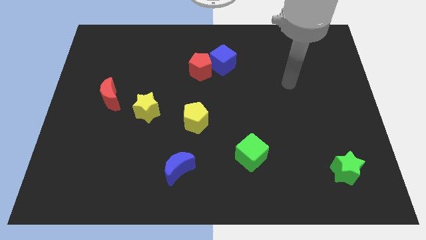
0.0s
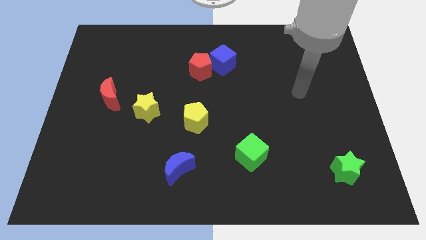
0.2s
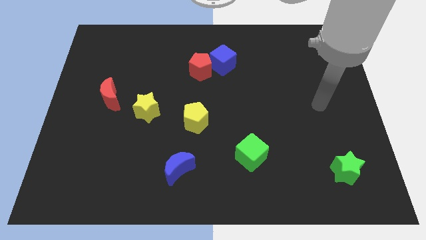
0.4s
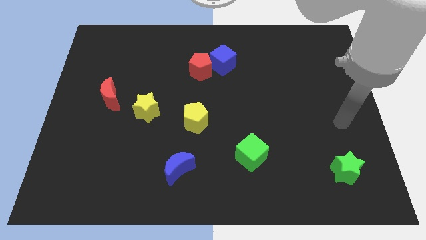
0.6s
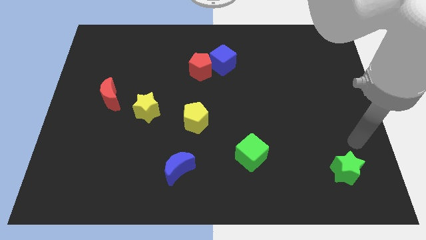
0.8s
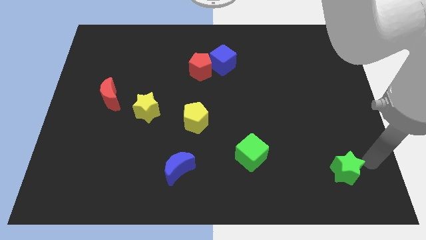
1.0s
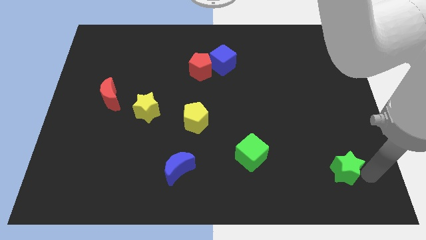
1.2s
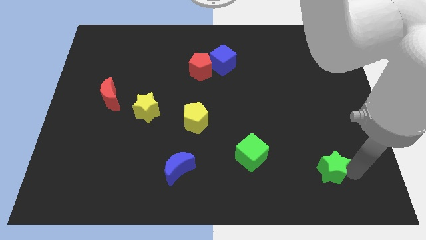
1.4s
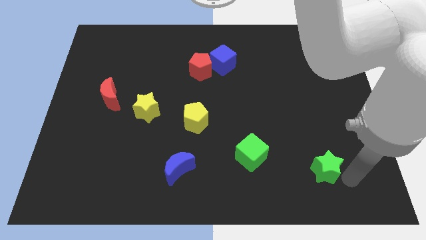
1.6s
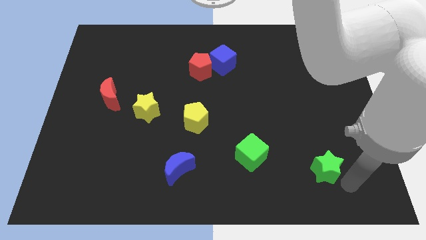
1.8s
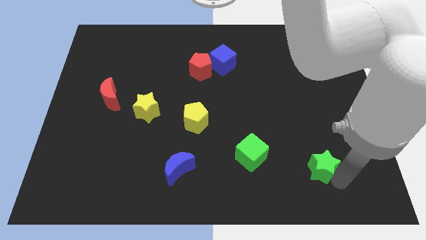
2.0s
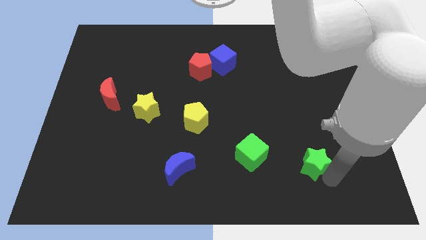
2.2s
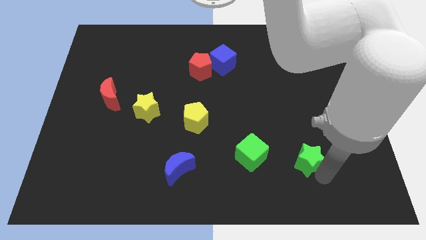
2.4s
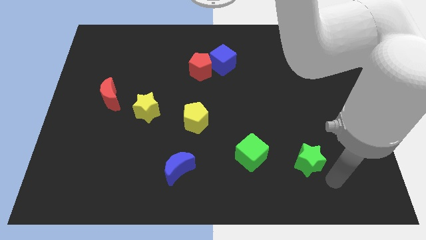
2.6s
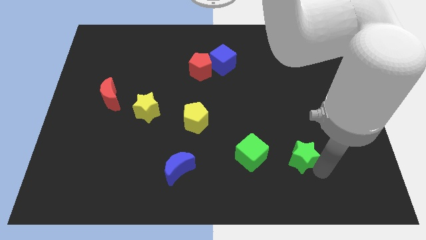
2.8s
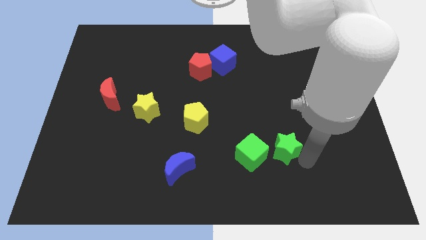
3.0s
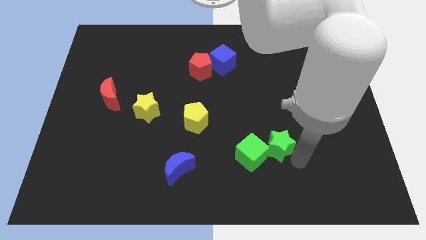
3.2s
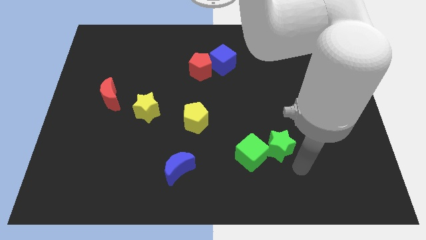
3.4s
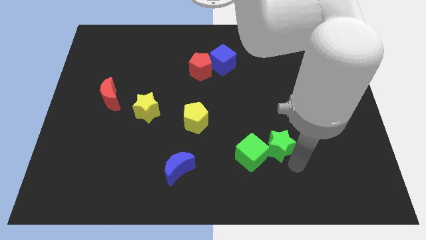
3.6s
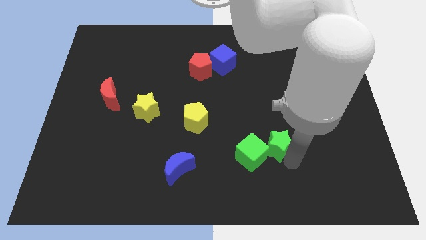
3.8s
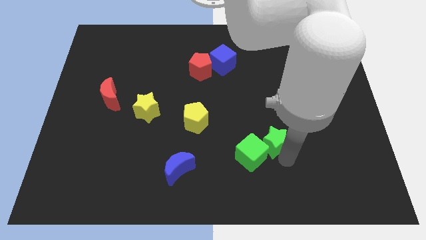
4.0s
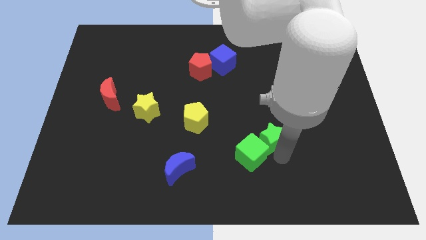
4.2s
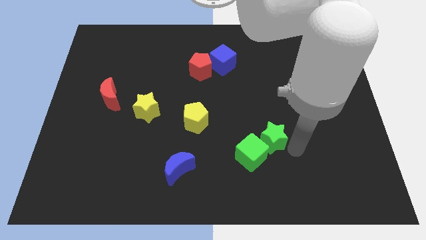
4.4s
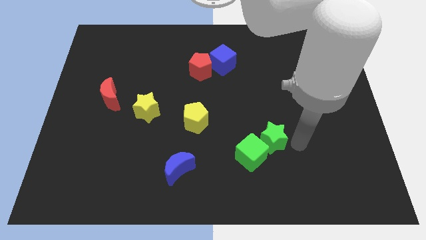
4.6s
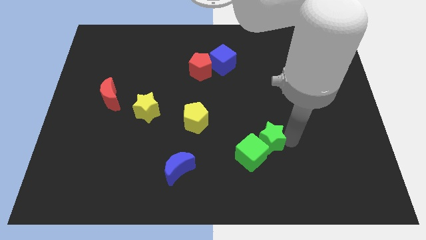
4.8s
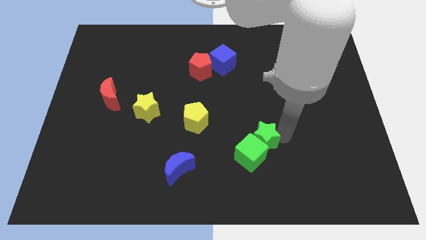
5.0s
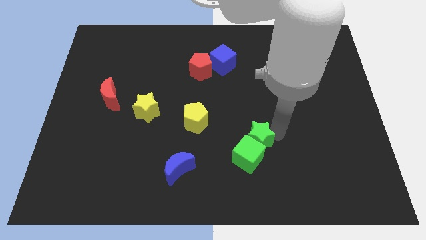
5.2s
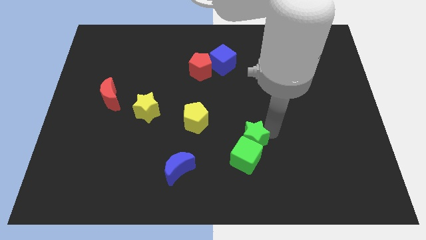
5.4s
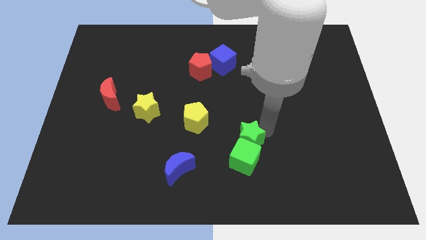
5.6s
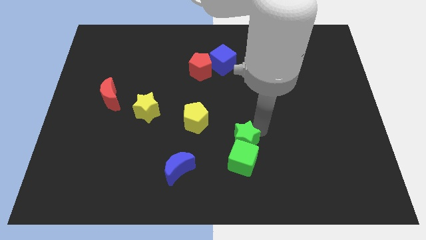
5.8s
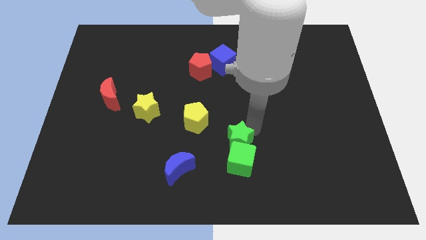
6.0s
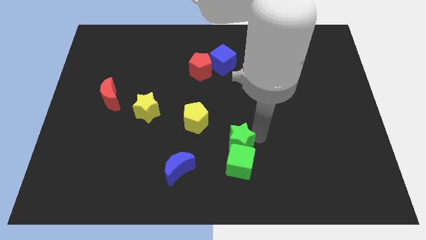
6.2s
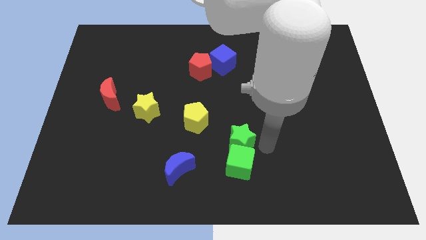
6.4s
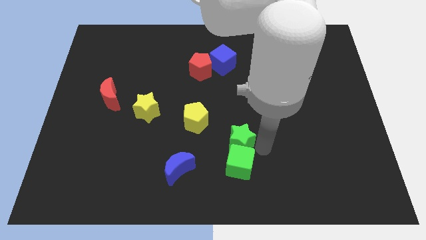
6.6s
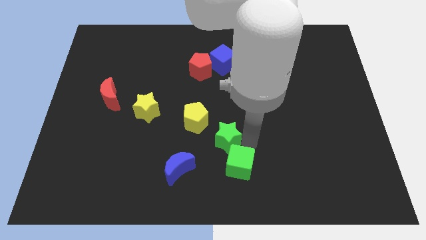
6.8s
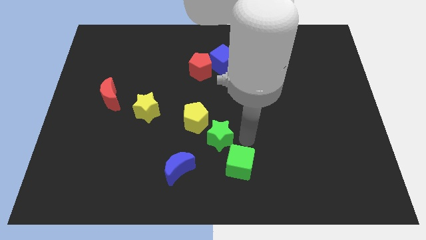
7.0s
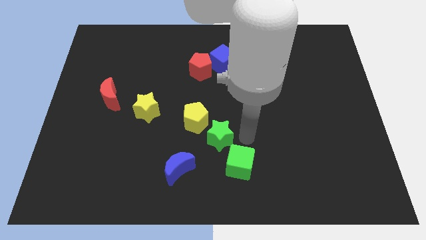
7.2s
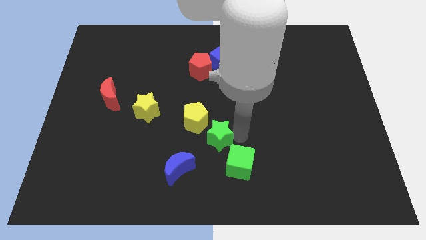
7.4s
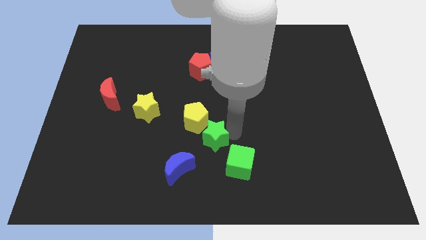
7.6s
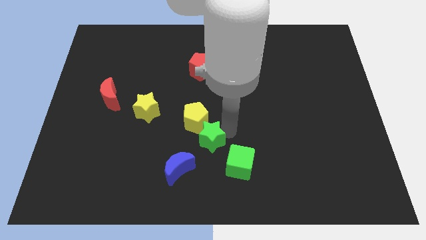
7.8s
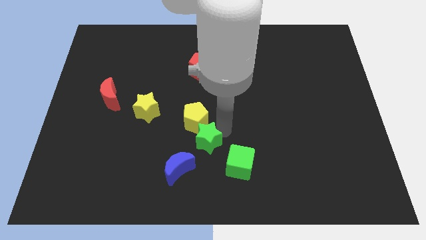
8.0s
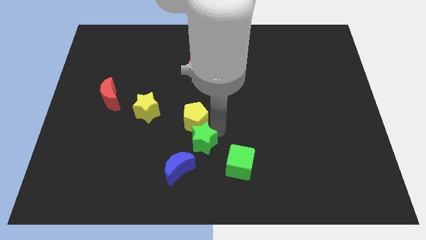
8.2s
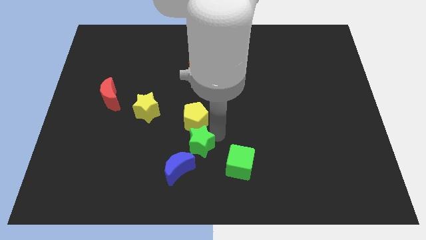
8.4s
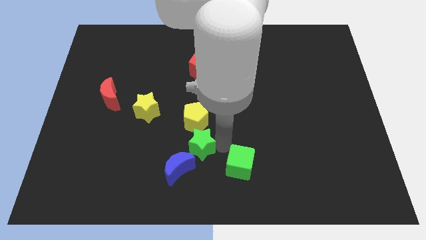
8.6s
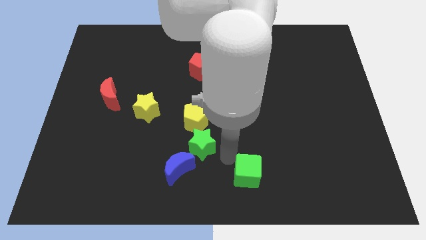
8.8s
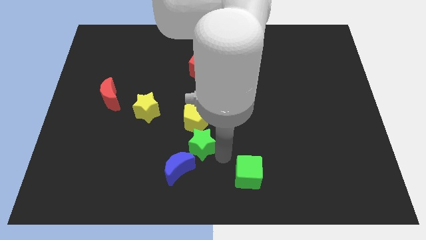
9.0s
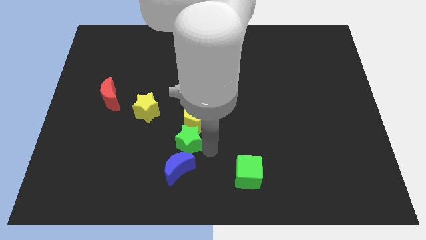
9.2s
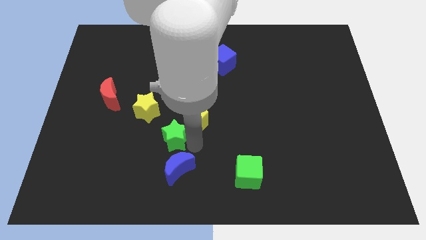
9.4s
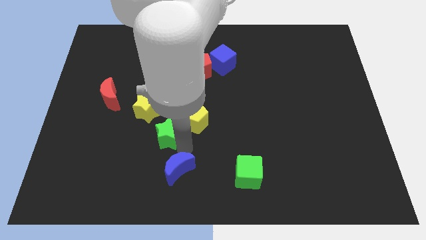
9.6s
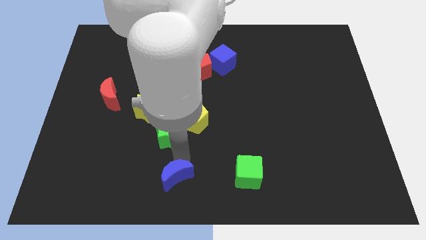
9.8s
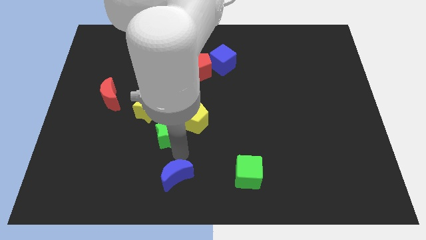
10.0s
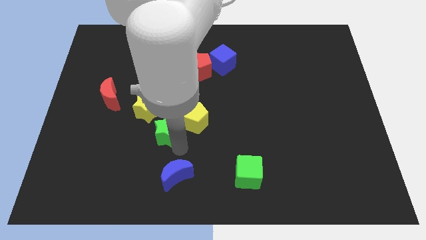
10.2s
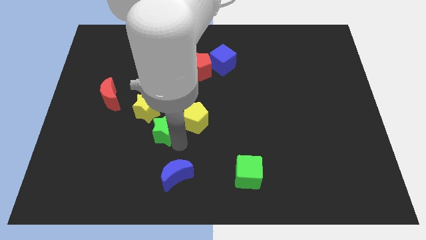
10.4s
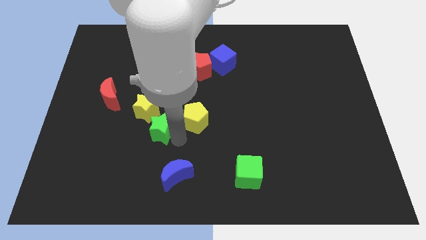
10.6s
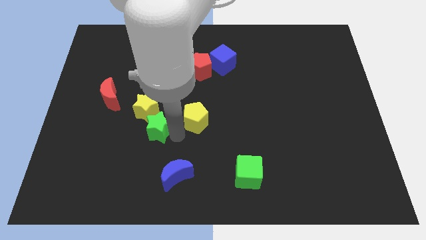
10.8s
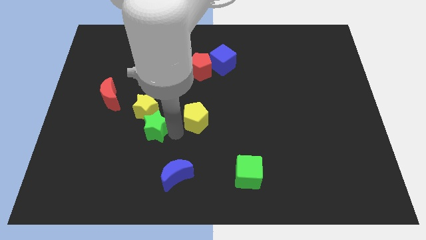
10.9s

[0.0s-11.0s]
put the green star to the yellow star
